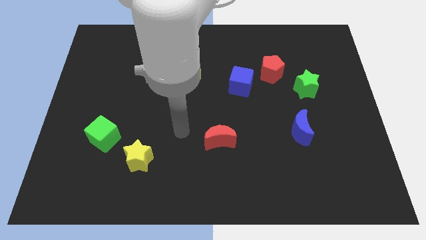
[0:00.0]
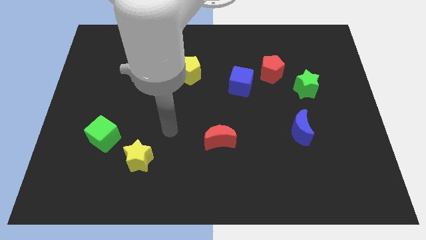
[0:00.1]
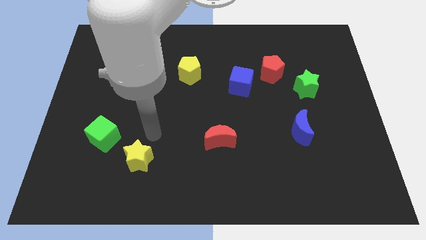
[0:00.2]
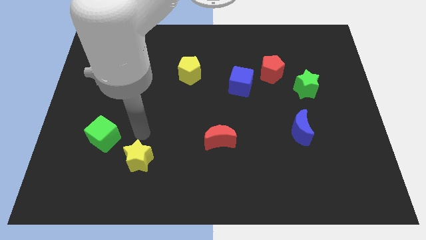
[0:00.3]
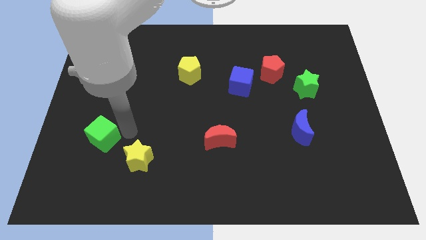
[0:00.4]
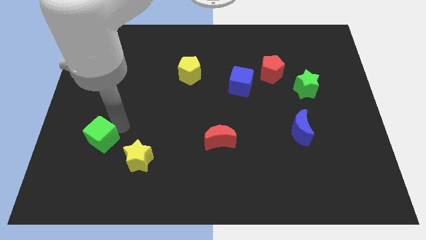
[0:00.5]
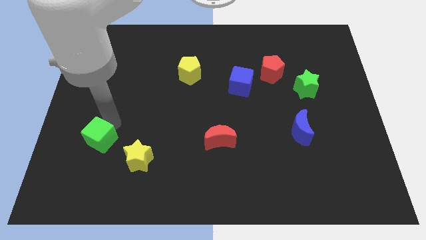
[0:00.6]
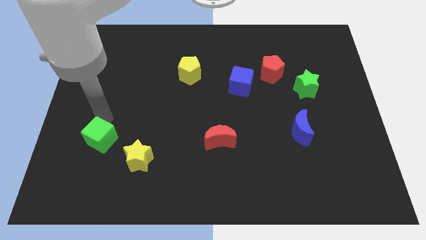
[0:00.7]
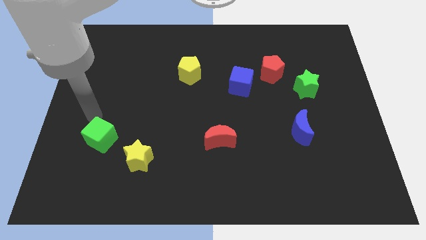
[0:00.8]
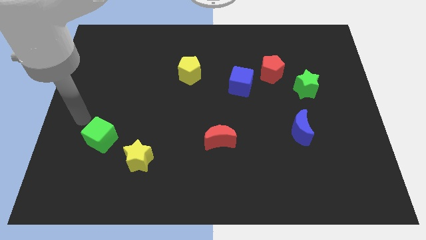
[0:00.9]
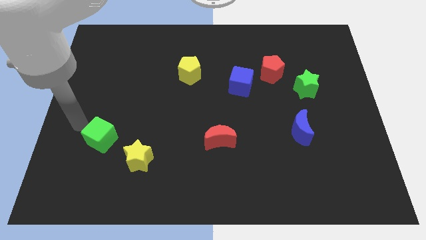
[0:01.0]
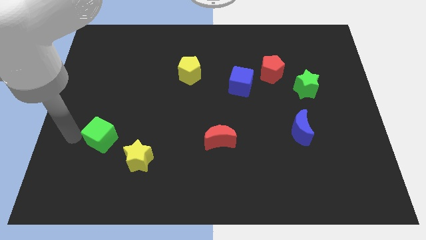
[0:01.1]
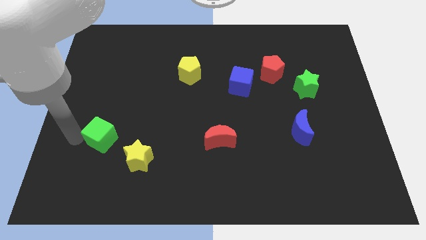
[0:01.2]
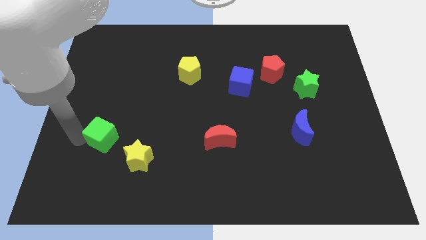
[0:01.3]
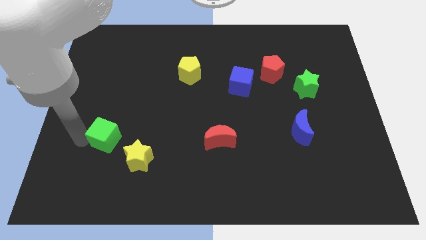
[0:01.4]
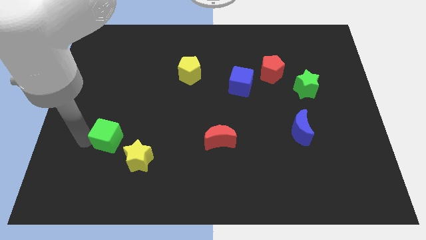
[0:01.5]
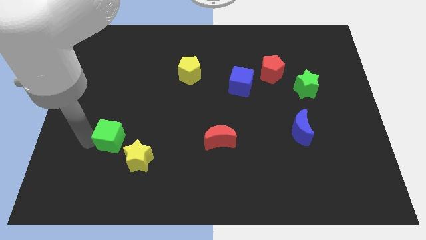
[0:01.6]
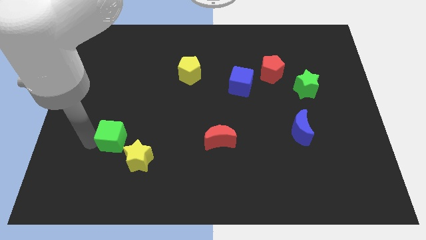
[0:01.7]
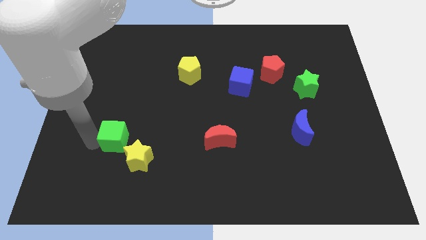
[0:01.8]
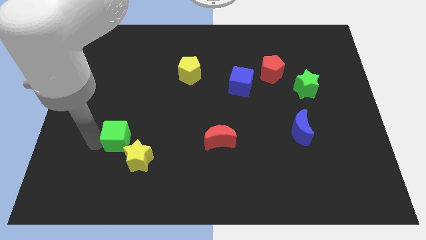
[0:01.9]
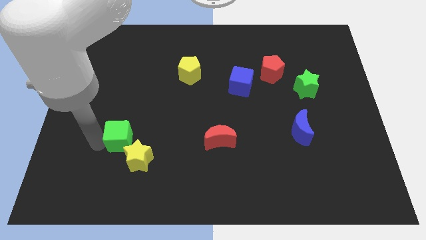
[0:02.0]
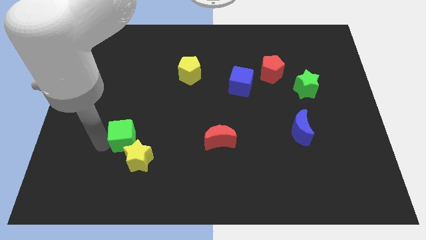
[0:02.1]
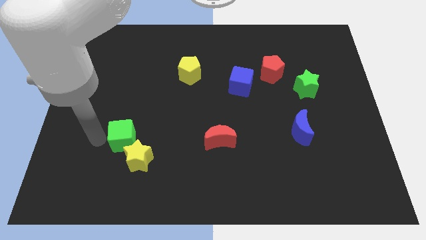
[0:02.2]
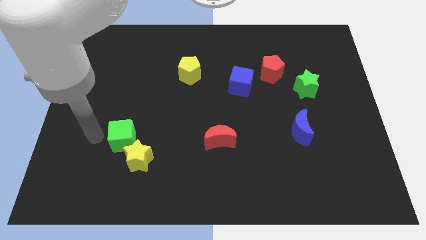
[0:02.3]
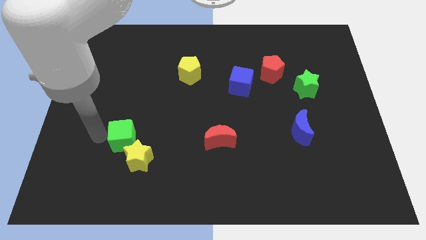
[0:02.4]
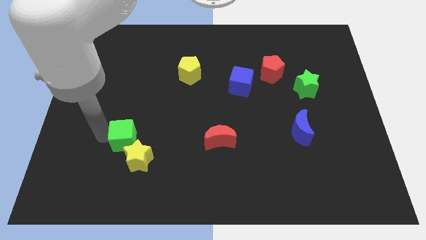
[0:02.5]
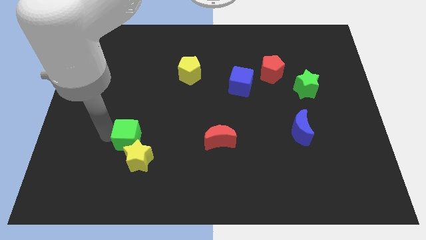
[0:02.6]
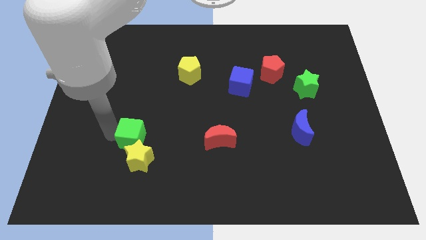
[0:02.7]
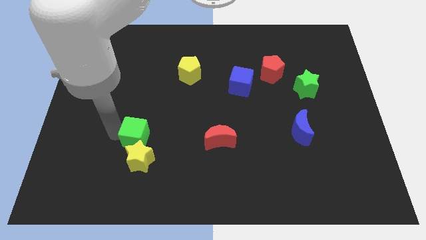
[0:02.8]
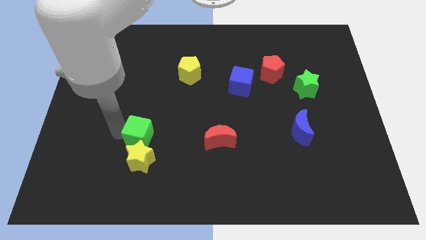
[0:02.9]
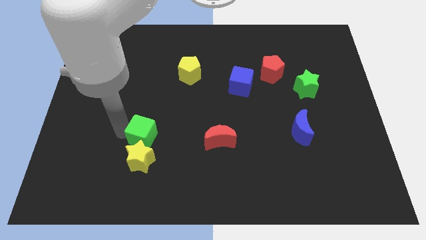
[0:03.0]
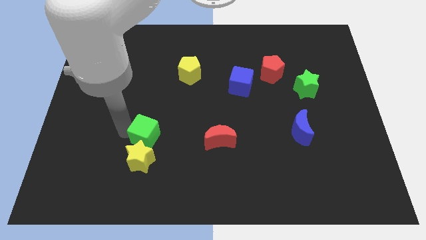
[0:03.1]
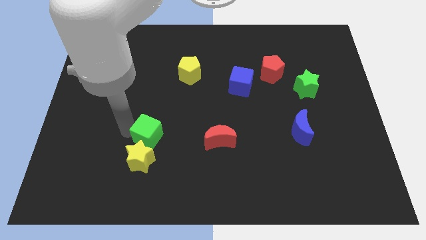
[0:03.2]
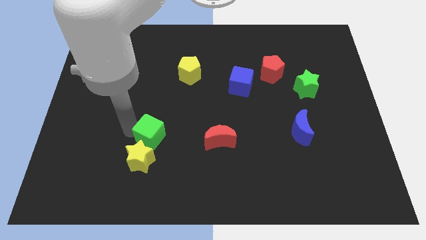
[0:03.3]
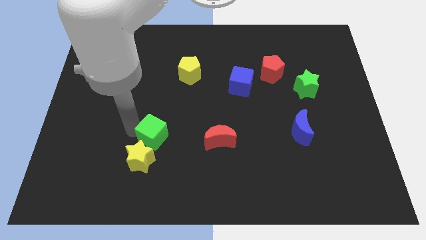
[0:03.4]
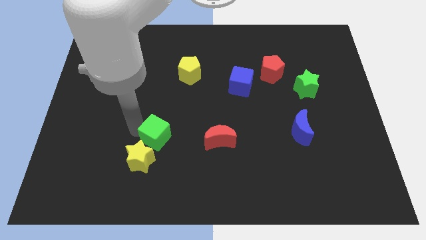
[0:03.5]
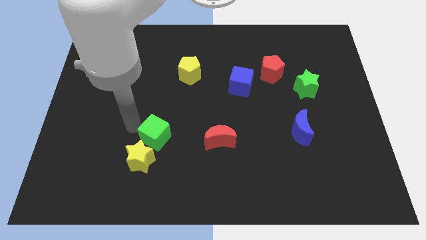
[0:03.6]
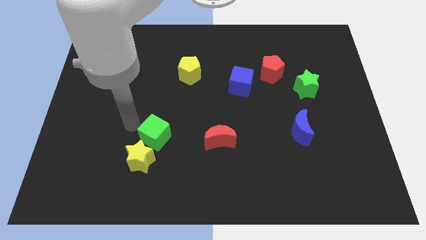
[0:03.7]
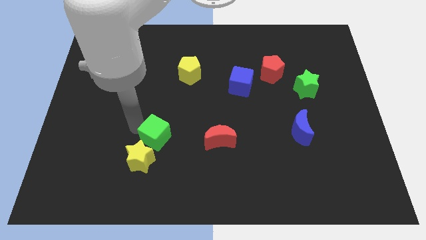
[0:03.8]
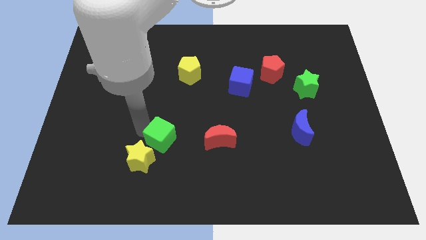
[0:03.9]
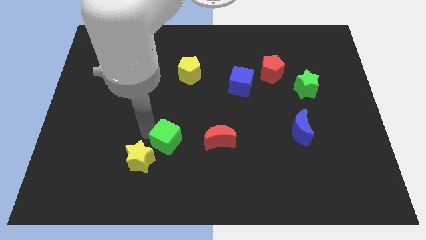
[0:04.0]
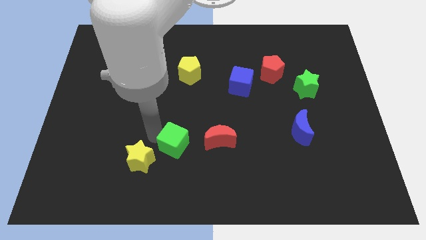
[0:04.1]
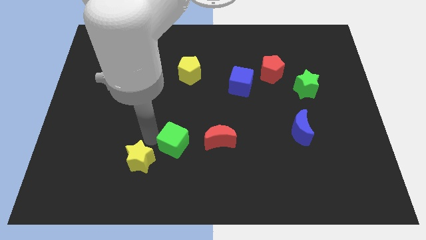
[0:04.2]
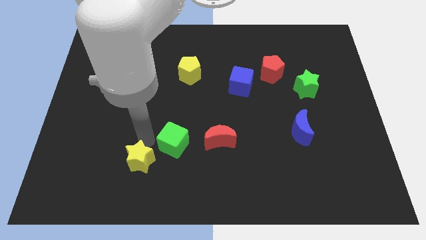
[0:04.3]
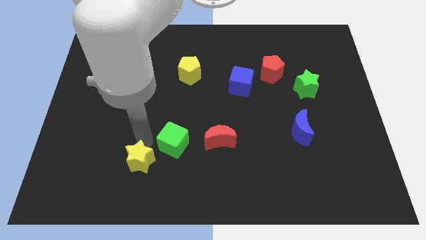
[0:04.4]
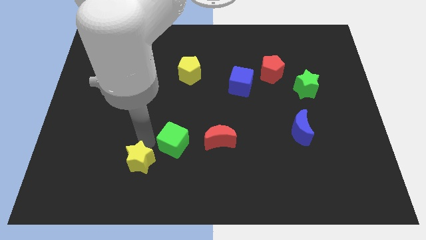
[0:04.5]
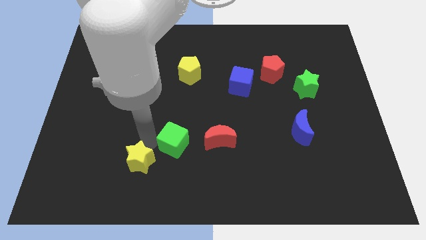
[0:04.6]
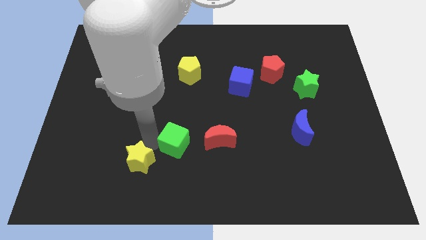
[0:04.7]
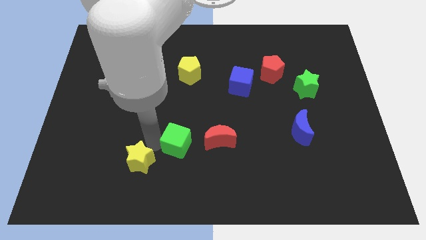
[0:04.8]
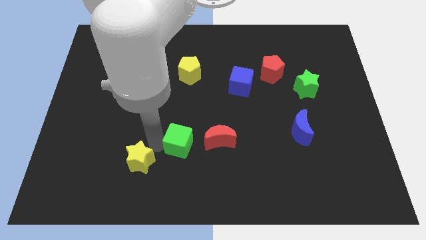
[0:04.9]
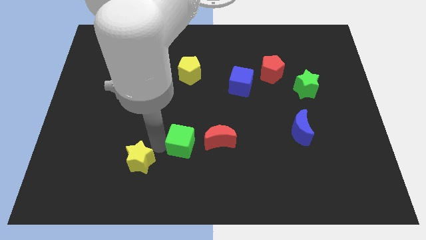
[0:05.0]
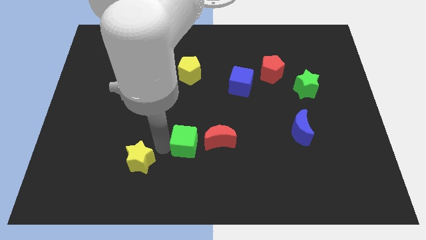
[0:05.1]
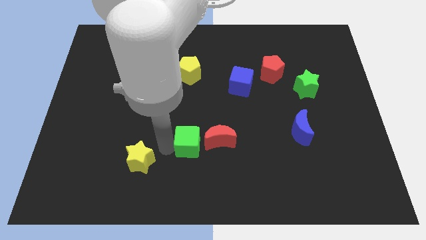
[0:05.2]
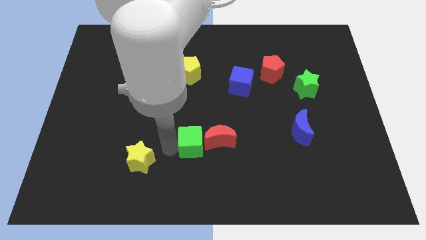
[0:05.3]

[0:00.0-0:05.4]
slide the green cube close to the red moon

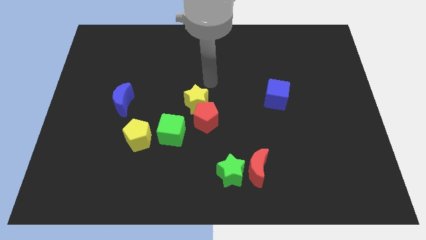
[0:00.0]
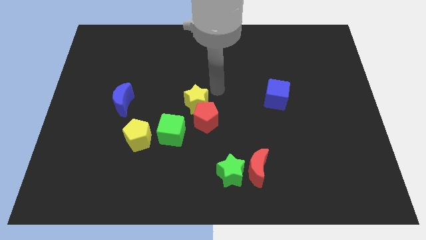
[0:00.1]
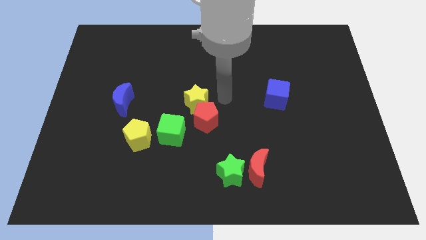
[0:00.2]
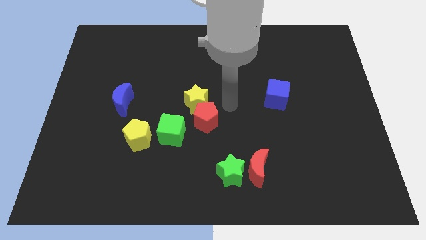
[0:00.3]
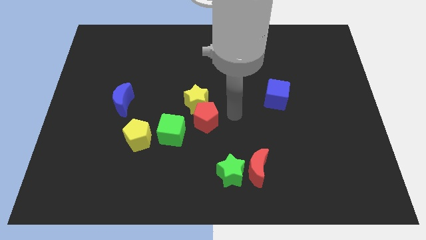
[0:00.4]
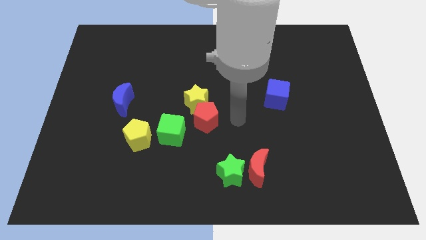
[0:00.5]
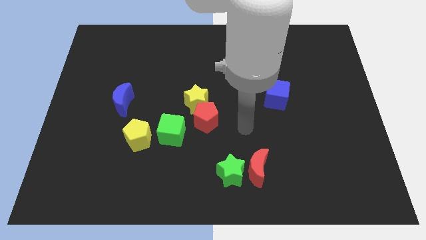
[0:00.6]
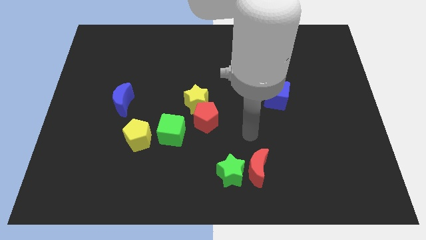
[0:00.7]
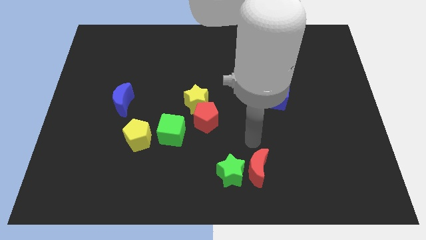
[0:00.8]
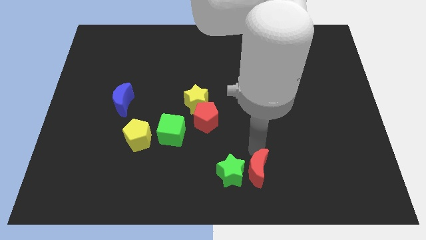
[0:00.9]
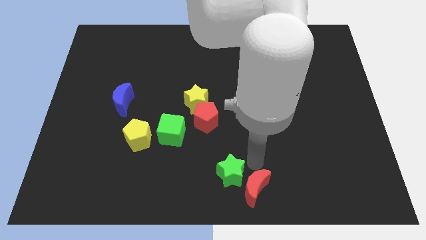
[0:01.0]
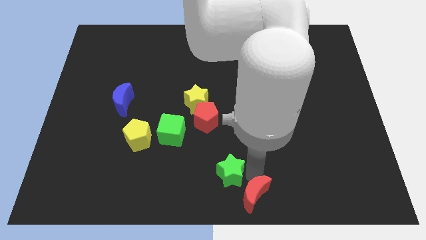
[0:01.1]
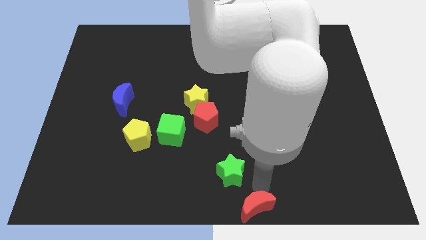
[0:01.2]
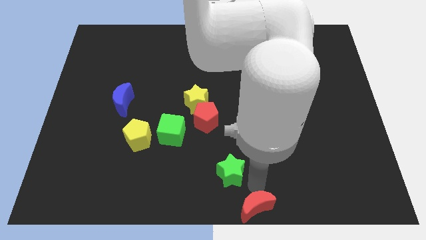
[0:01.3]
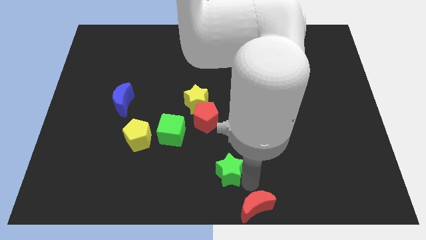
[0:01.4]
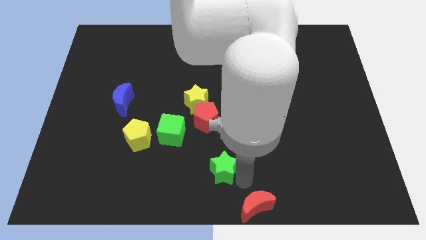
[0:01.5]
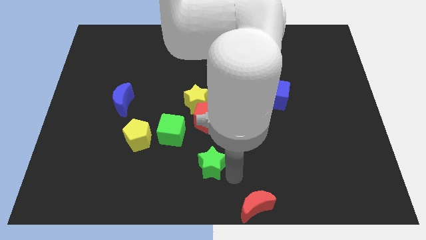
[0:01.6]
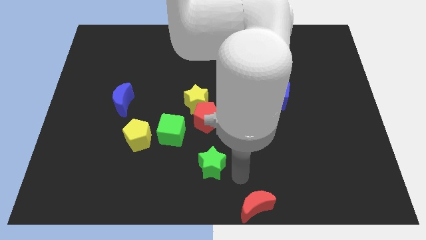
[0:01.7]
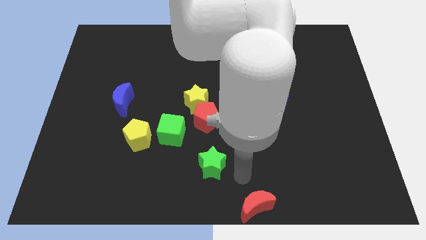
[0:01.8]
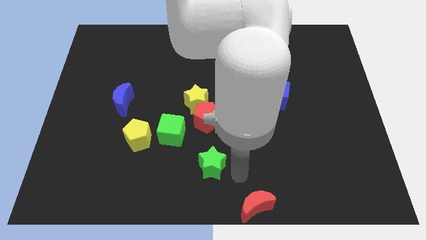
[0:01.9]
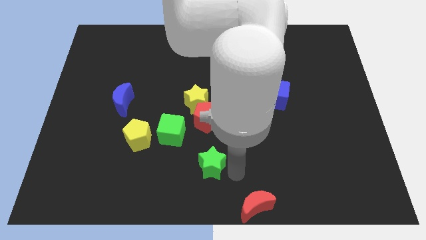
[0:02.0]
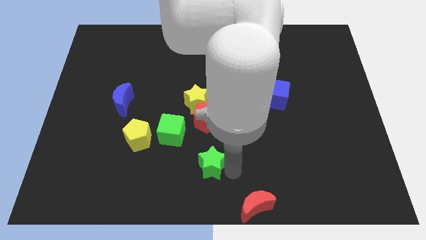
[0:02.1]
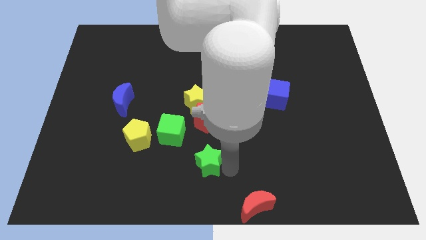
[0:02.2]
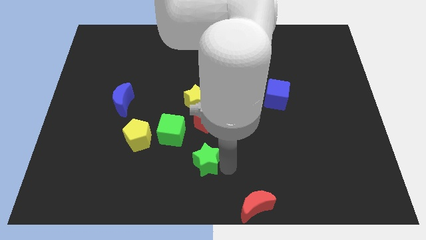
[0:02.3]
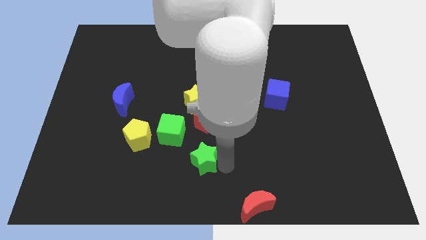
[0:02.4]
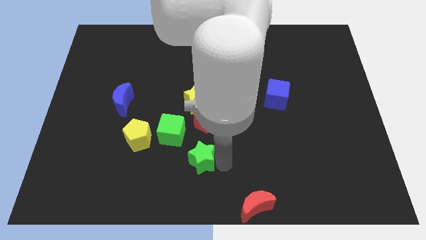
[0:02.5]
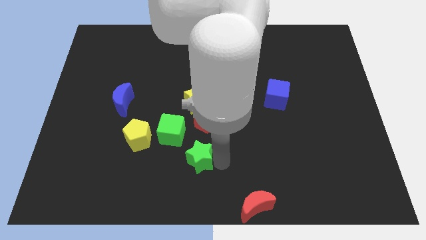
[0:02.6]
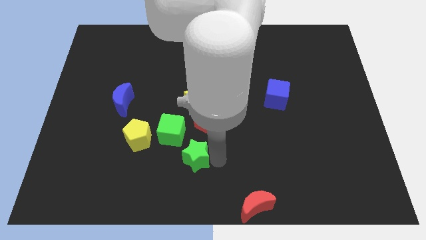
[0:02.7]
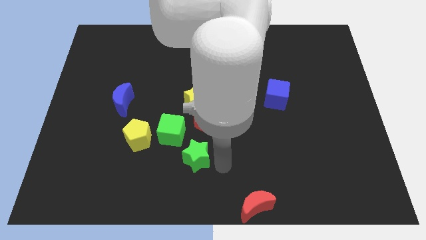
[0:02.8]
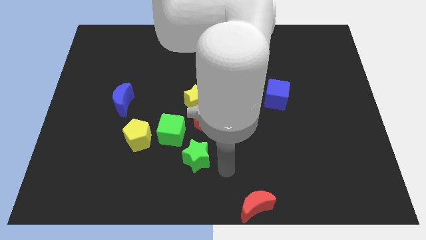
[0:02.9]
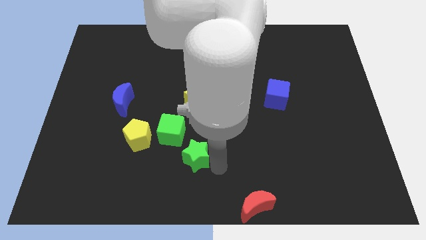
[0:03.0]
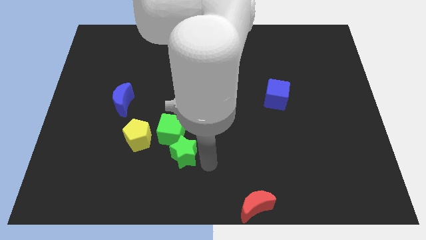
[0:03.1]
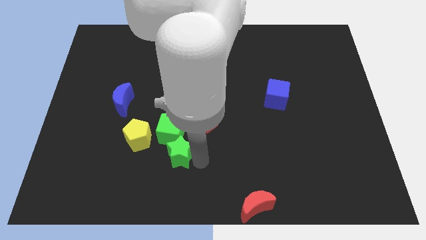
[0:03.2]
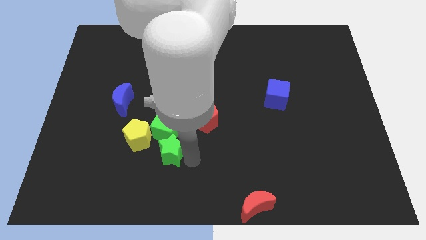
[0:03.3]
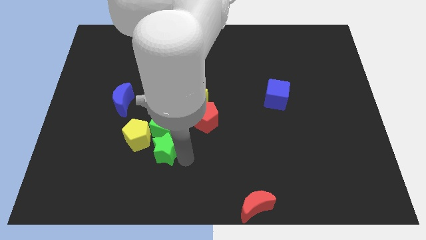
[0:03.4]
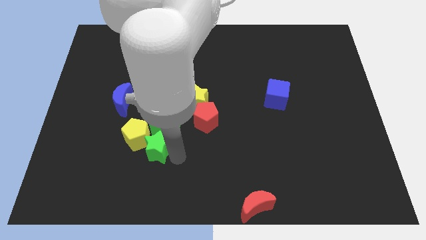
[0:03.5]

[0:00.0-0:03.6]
push the green star towards the yellow pentagon
